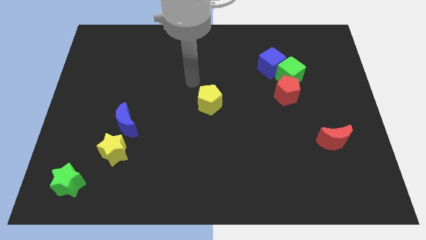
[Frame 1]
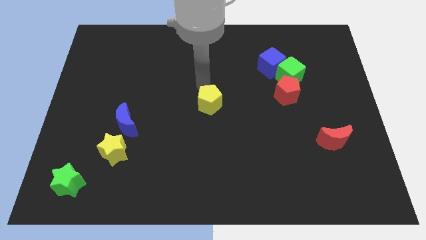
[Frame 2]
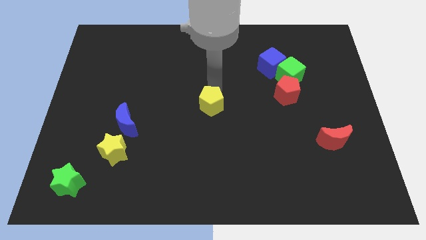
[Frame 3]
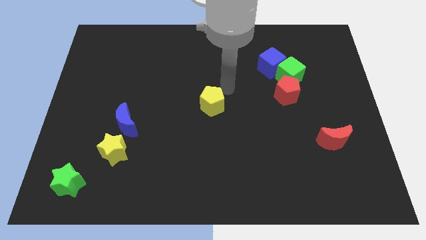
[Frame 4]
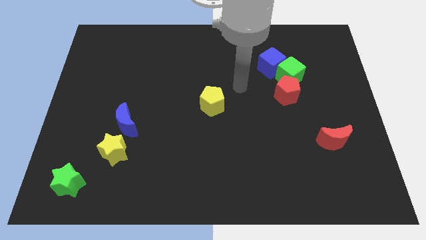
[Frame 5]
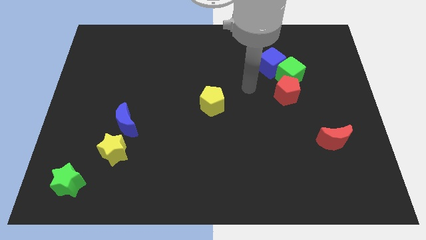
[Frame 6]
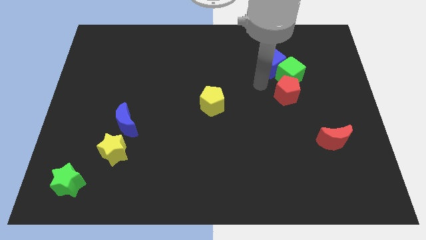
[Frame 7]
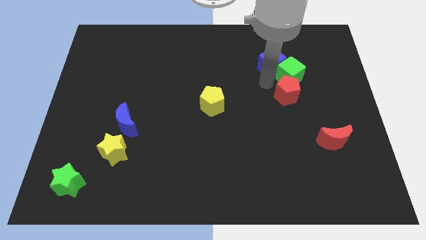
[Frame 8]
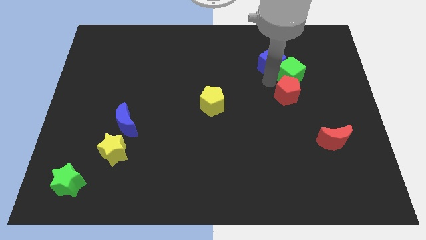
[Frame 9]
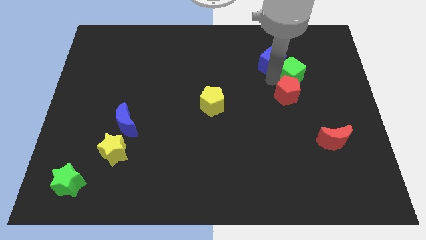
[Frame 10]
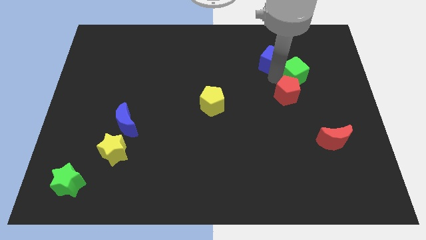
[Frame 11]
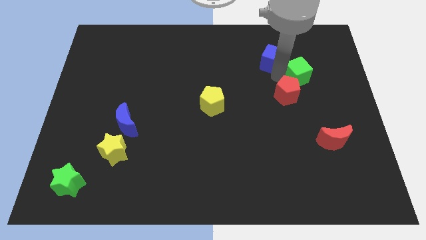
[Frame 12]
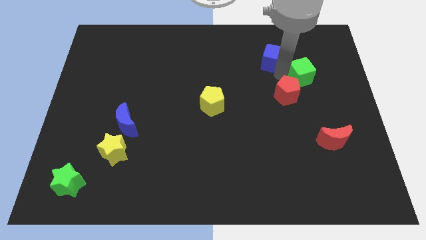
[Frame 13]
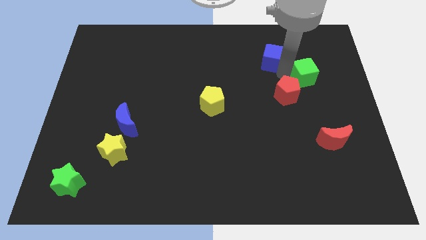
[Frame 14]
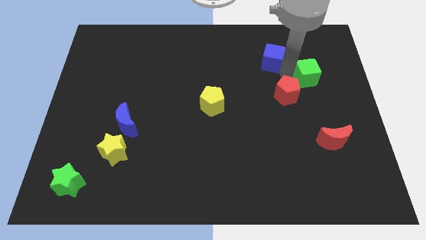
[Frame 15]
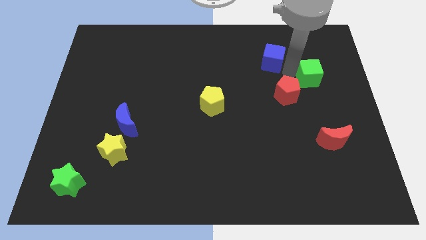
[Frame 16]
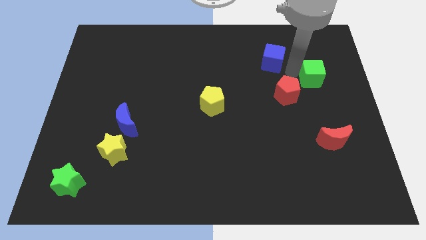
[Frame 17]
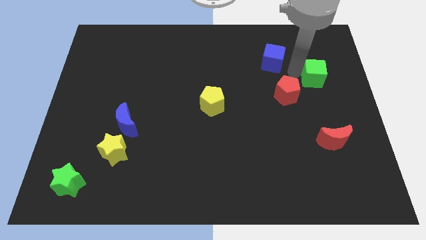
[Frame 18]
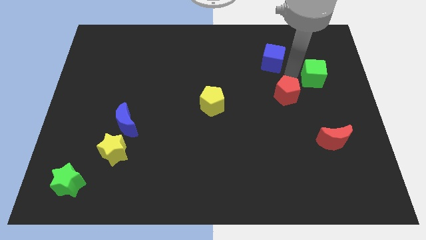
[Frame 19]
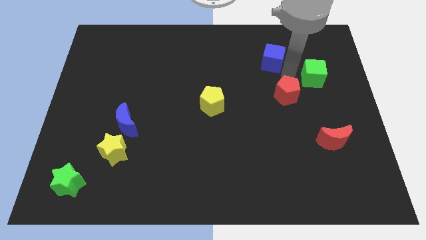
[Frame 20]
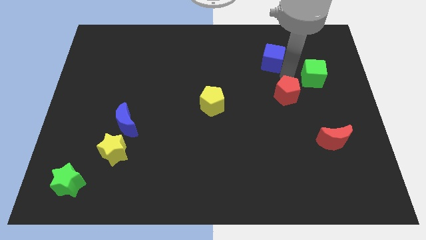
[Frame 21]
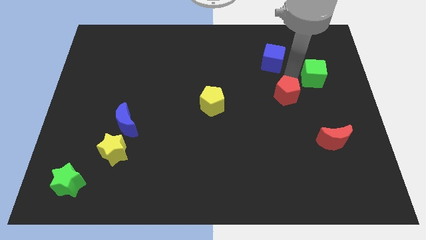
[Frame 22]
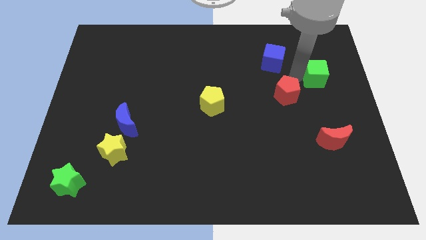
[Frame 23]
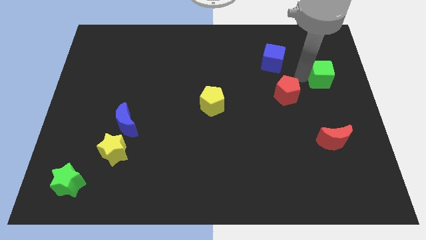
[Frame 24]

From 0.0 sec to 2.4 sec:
pull the green cube apart from the blue cube and red pentagon

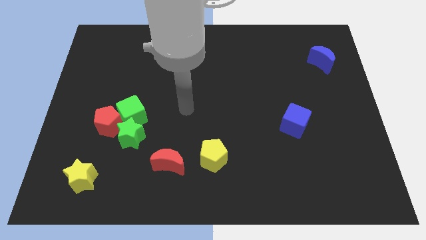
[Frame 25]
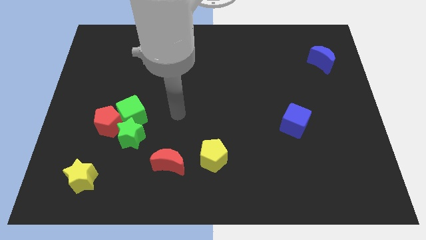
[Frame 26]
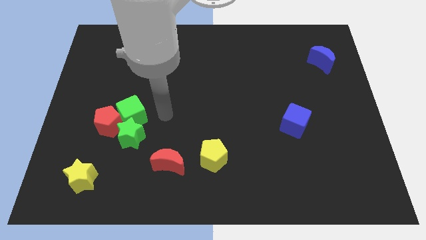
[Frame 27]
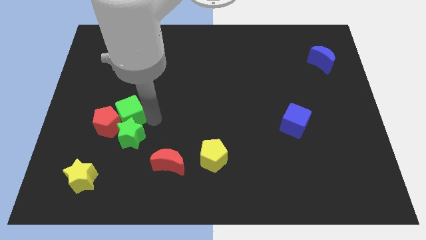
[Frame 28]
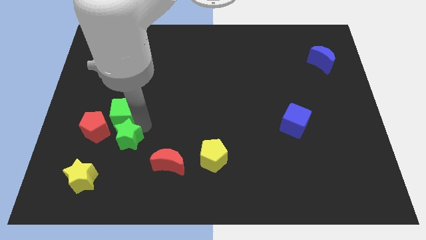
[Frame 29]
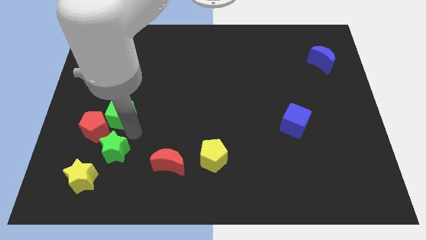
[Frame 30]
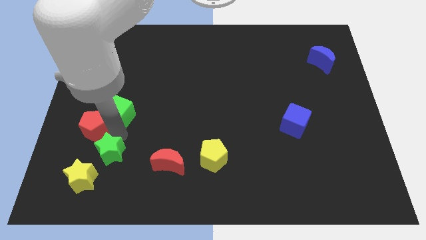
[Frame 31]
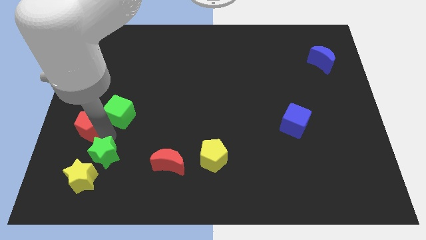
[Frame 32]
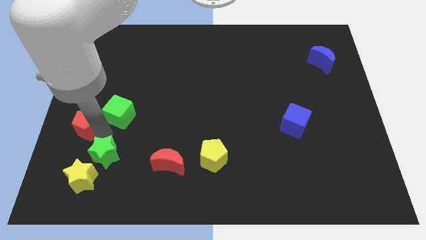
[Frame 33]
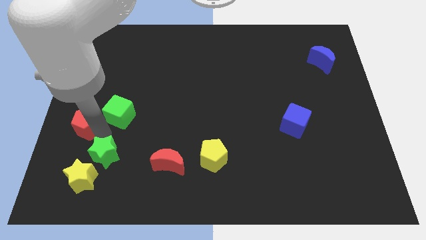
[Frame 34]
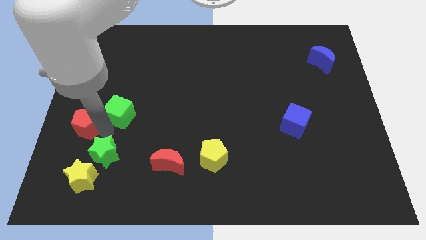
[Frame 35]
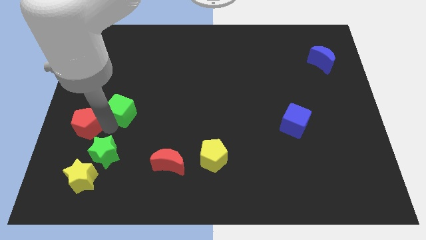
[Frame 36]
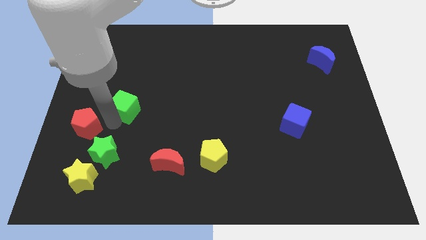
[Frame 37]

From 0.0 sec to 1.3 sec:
separate the green cube from the red pentagon and green star

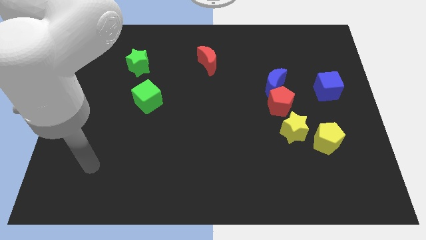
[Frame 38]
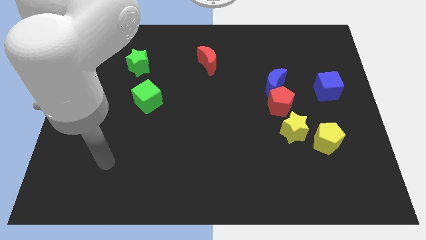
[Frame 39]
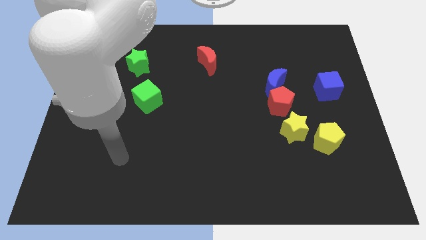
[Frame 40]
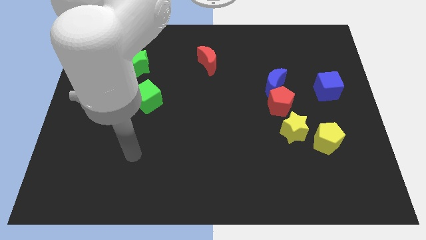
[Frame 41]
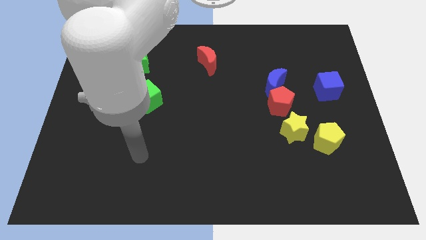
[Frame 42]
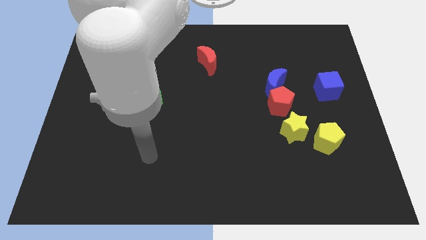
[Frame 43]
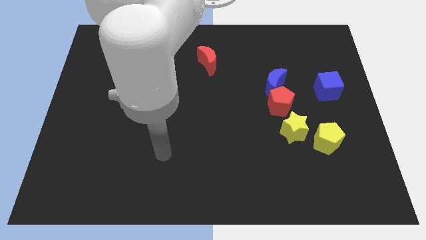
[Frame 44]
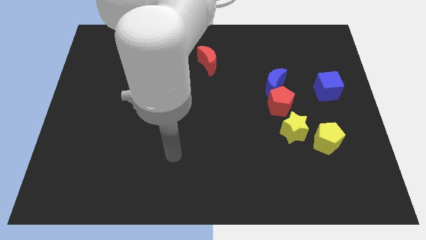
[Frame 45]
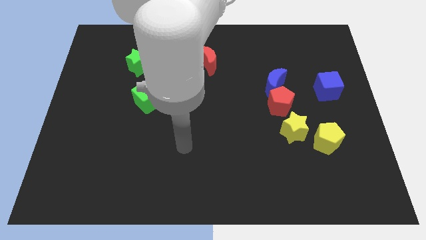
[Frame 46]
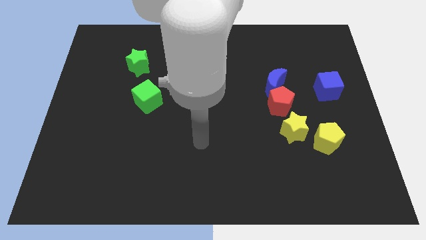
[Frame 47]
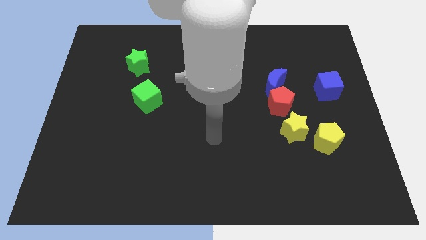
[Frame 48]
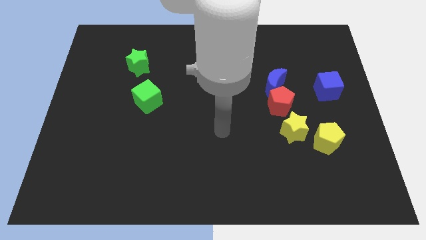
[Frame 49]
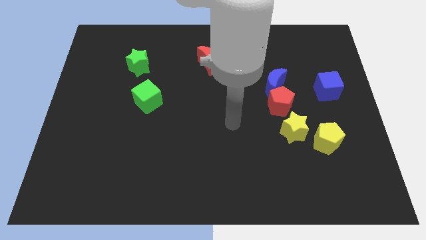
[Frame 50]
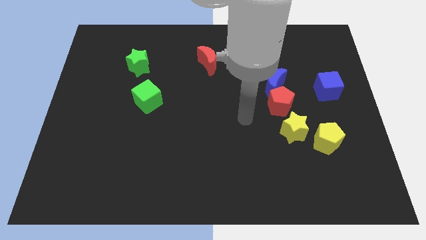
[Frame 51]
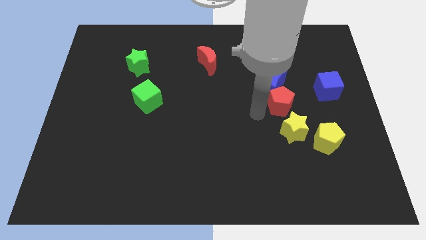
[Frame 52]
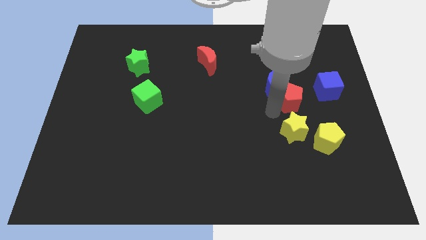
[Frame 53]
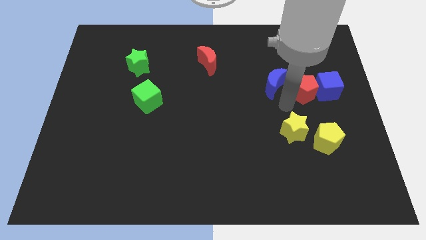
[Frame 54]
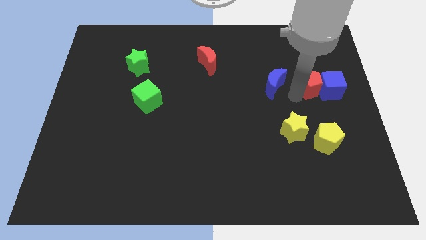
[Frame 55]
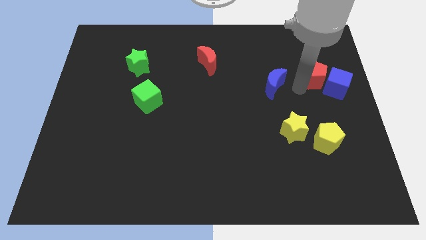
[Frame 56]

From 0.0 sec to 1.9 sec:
move the blue moon away from the red pentagon

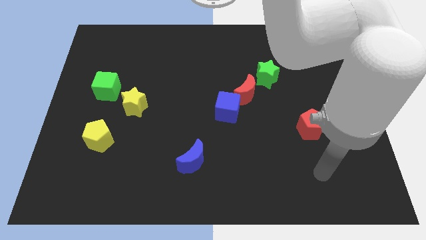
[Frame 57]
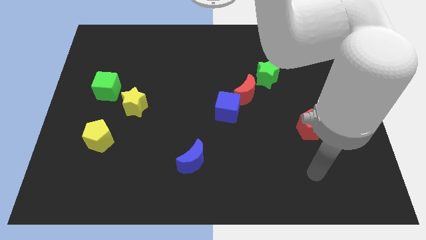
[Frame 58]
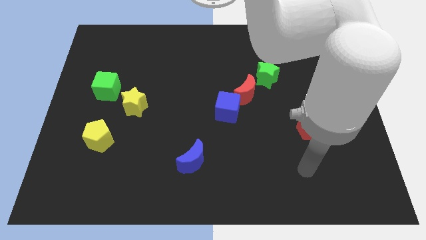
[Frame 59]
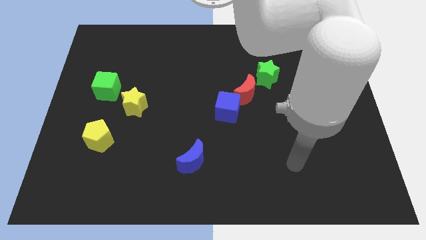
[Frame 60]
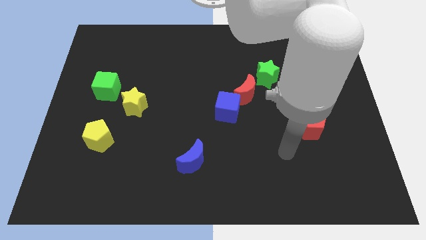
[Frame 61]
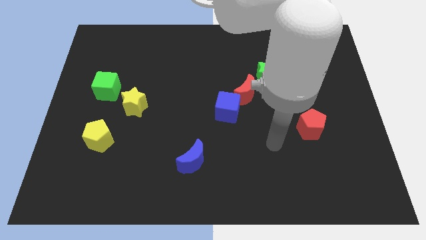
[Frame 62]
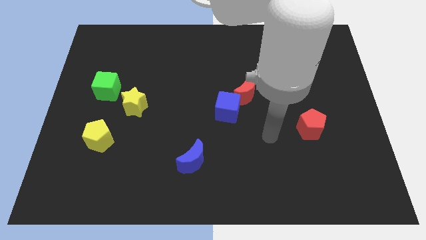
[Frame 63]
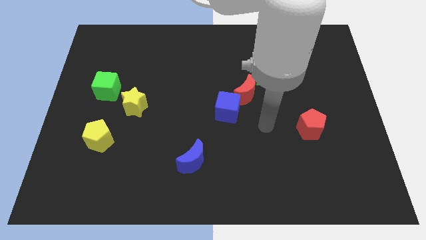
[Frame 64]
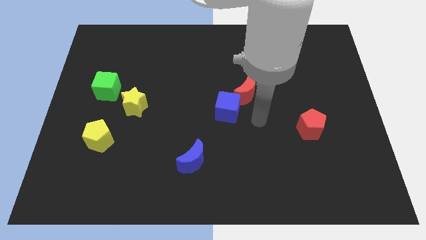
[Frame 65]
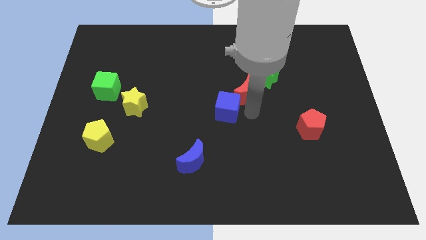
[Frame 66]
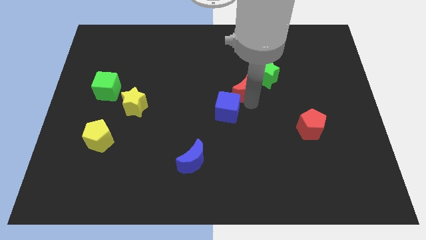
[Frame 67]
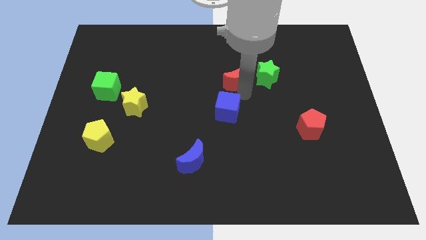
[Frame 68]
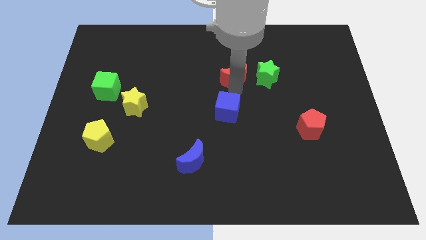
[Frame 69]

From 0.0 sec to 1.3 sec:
pull the blue cube apart from the red moon

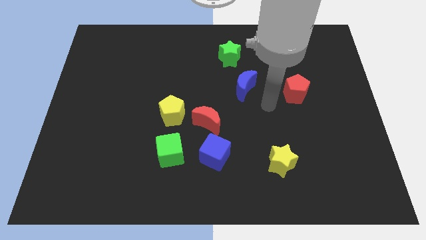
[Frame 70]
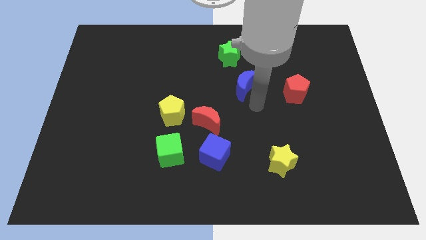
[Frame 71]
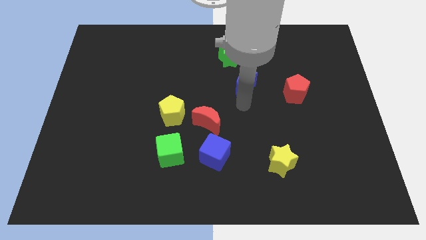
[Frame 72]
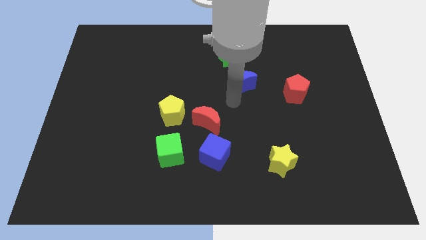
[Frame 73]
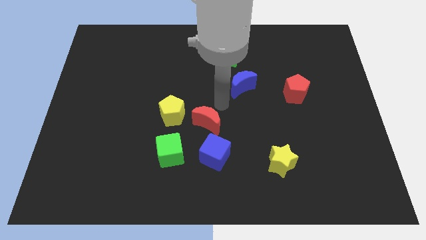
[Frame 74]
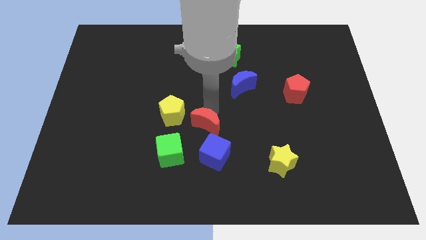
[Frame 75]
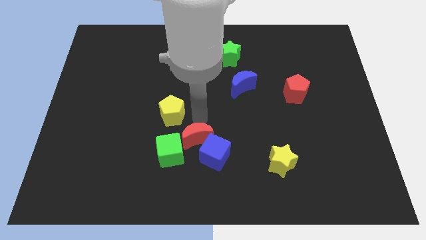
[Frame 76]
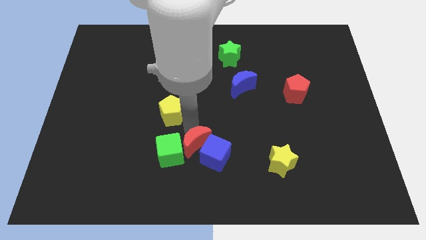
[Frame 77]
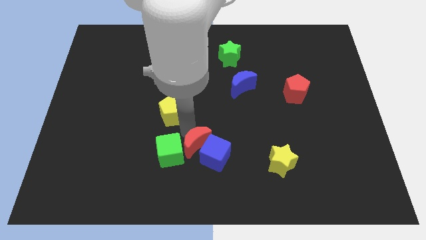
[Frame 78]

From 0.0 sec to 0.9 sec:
pull the yellow pentagon apart from the red moon

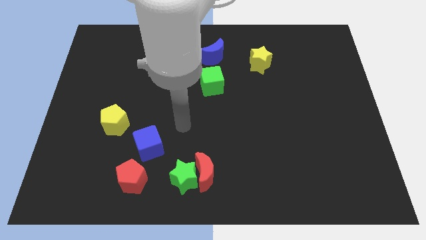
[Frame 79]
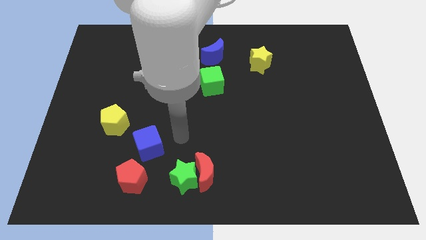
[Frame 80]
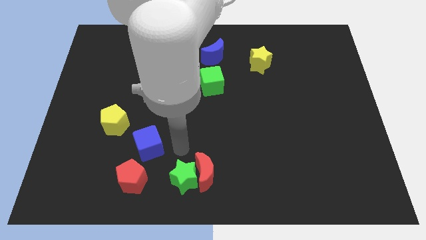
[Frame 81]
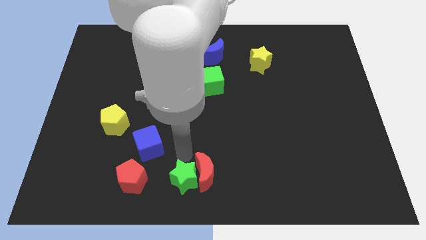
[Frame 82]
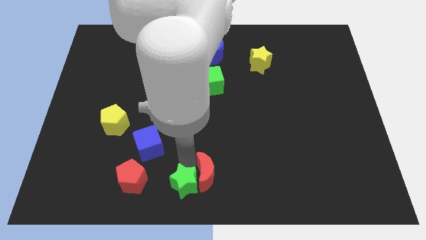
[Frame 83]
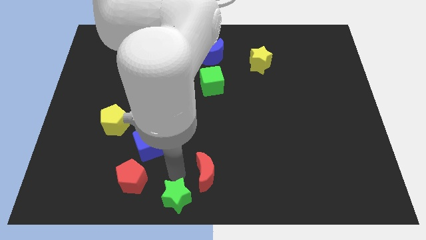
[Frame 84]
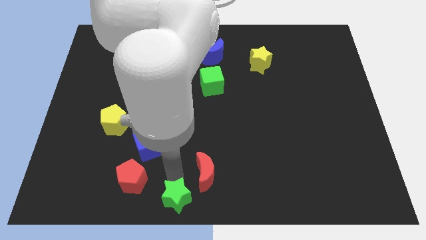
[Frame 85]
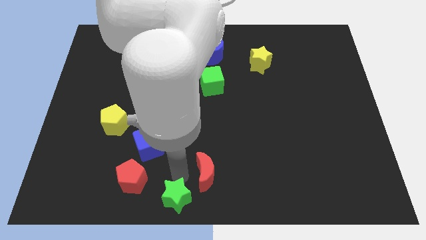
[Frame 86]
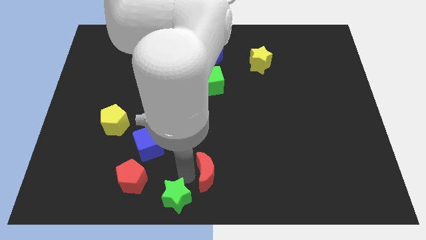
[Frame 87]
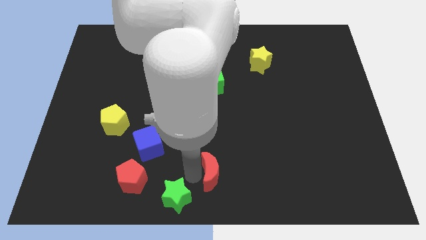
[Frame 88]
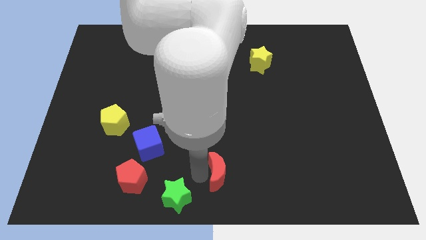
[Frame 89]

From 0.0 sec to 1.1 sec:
pull the red moon apart from the green star

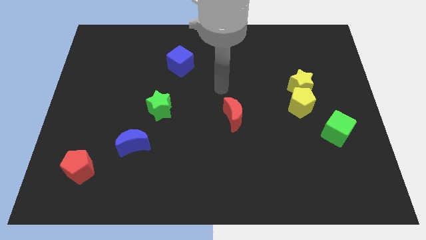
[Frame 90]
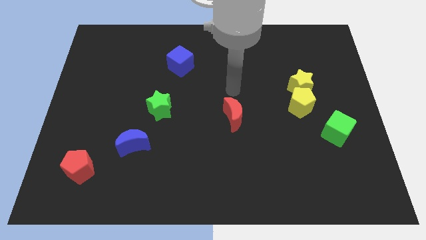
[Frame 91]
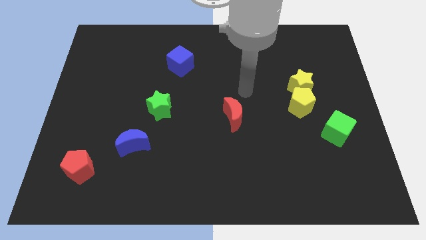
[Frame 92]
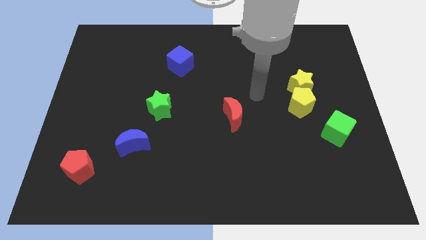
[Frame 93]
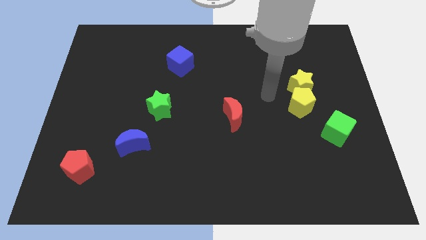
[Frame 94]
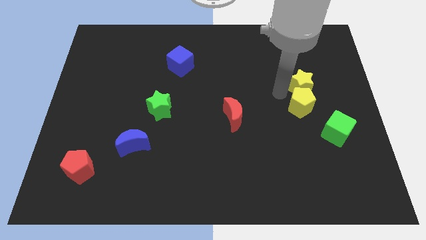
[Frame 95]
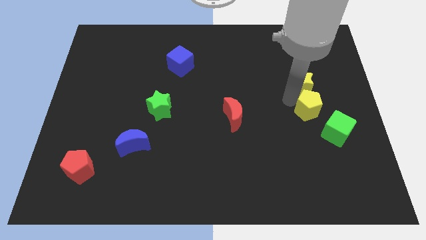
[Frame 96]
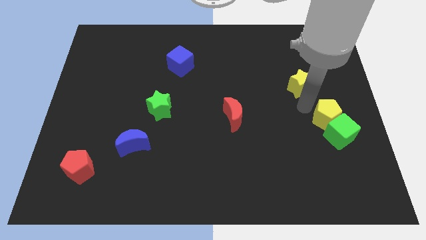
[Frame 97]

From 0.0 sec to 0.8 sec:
move the yellow star away from the yellow pentagon
